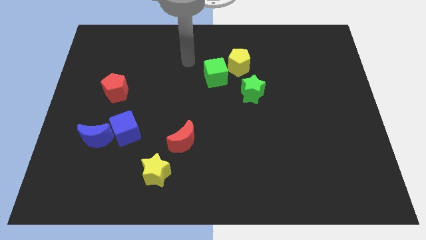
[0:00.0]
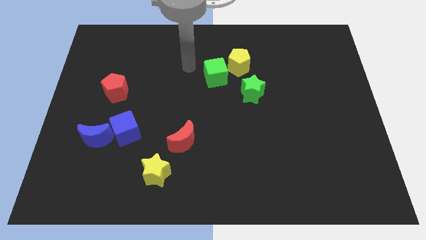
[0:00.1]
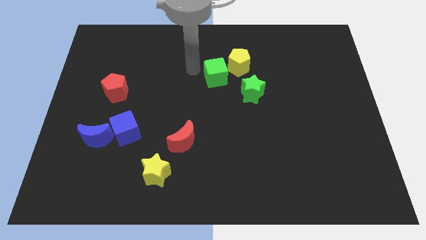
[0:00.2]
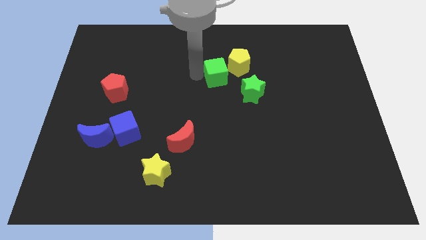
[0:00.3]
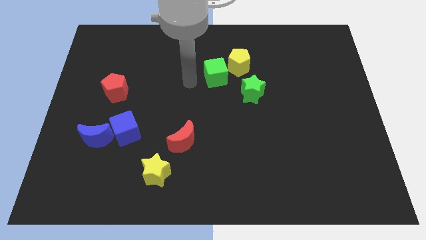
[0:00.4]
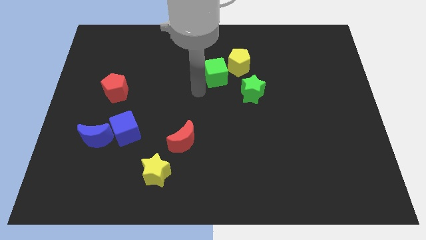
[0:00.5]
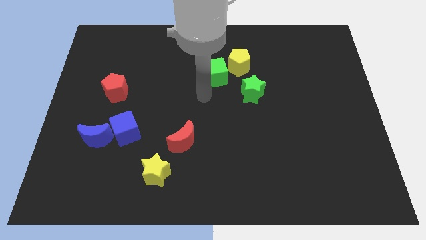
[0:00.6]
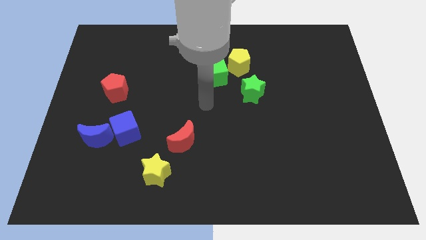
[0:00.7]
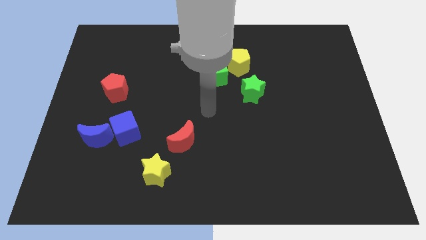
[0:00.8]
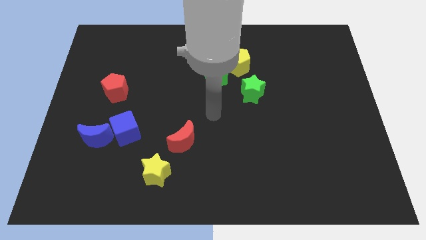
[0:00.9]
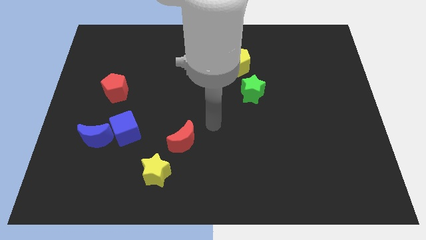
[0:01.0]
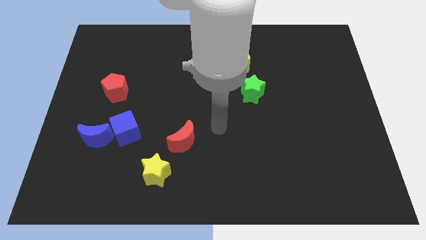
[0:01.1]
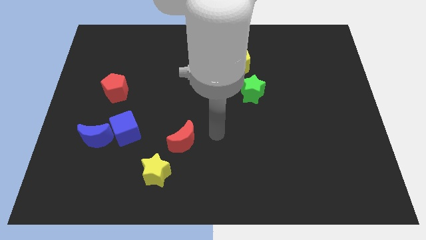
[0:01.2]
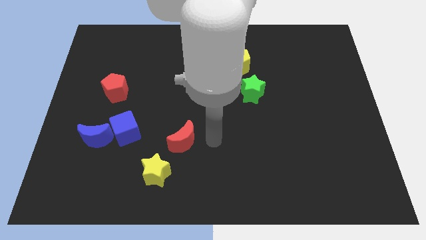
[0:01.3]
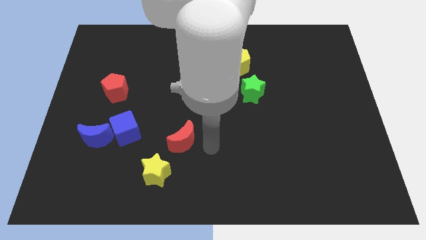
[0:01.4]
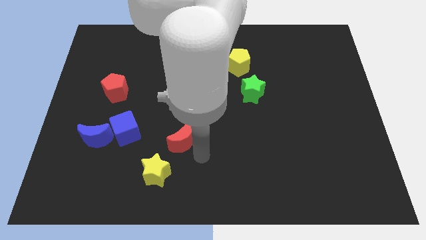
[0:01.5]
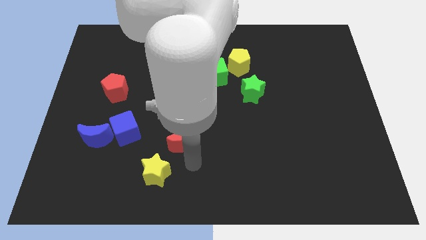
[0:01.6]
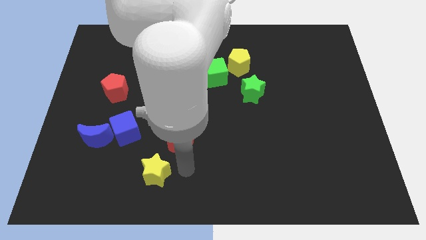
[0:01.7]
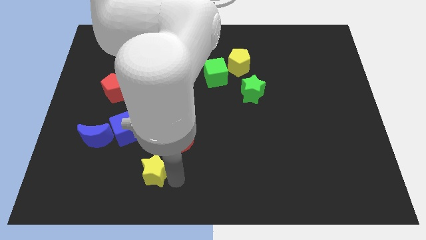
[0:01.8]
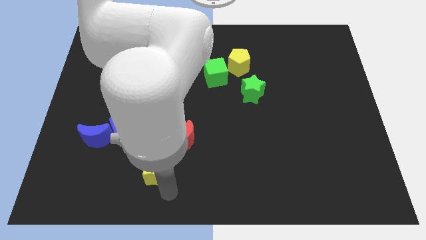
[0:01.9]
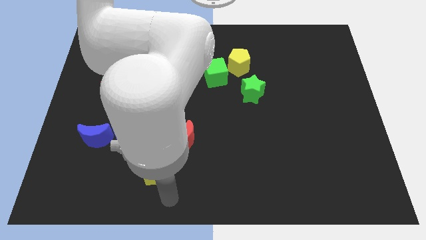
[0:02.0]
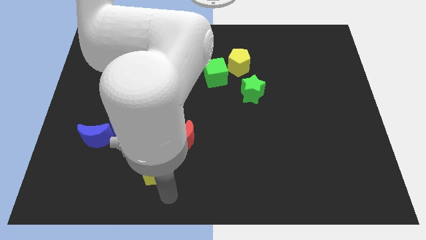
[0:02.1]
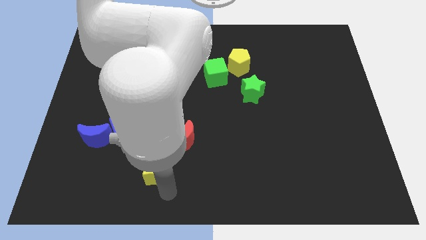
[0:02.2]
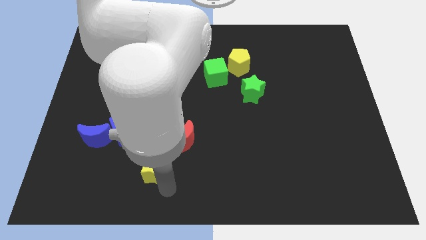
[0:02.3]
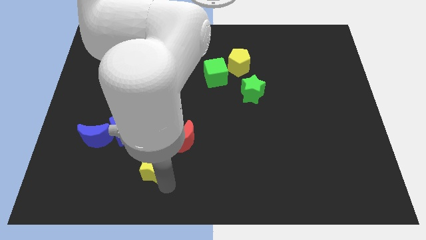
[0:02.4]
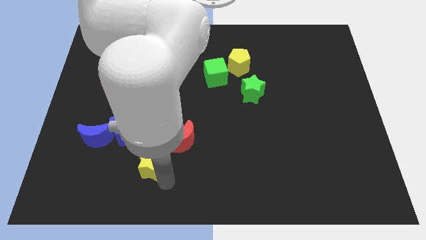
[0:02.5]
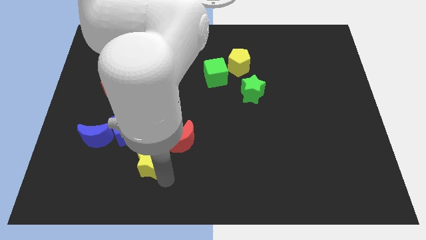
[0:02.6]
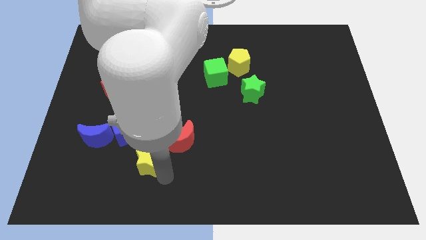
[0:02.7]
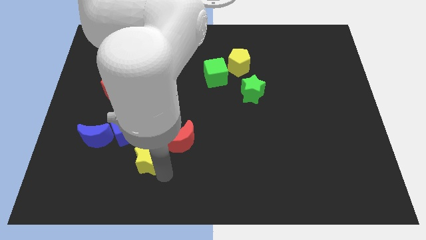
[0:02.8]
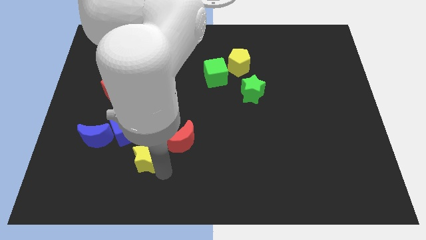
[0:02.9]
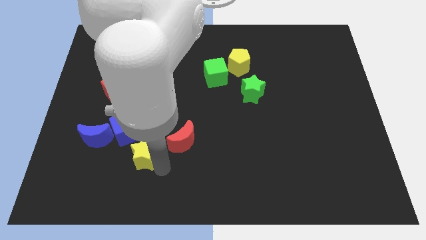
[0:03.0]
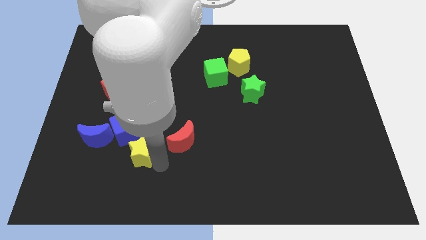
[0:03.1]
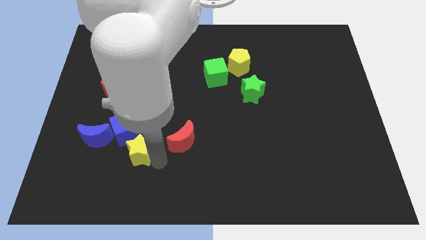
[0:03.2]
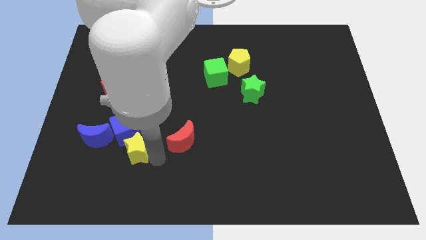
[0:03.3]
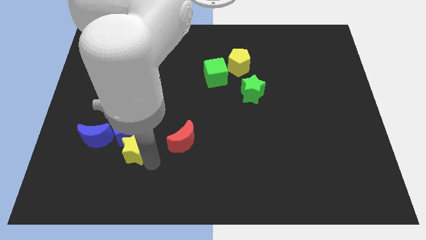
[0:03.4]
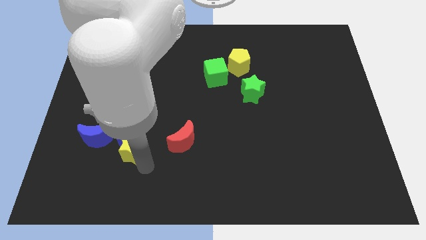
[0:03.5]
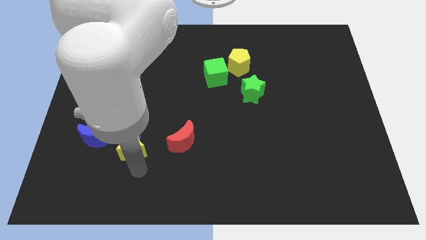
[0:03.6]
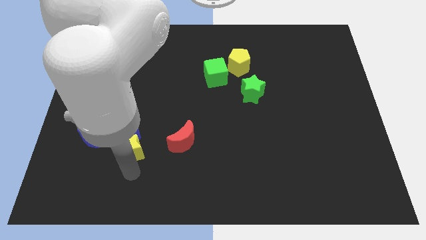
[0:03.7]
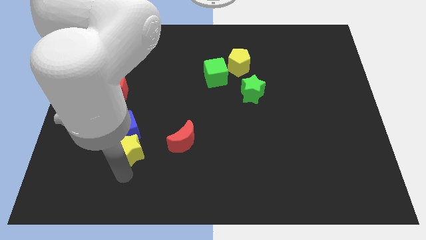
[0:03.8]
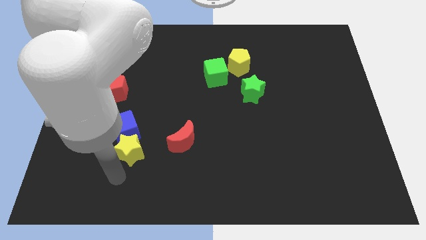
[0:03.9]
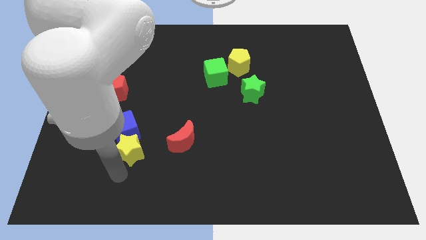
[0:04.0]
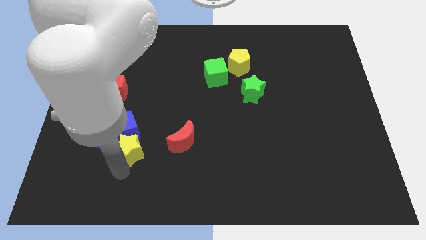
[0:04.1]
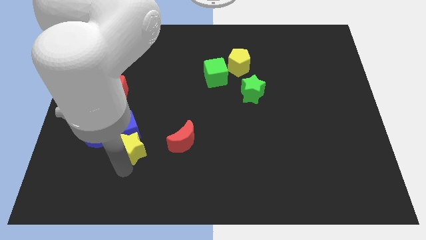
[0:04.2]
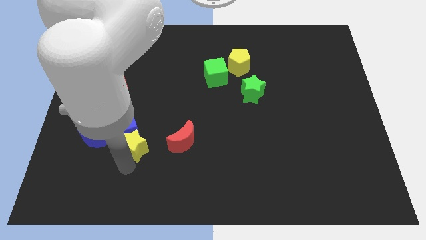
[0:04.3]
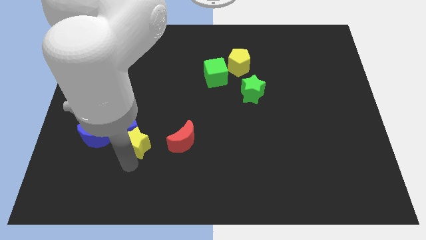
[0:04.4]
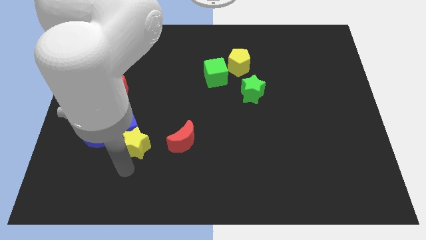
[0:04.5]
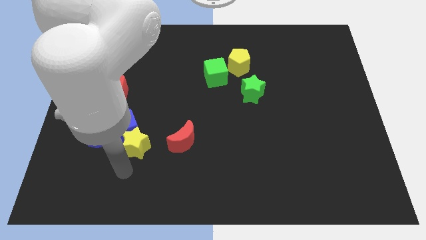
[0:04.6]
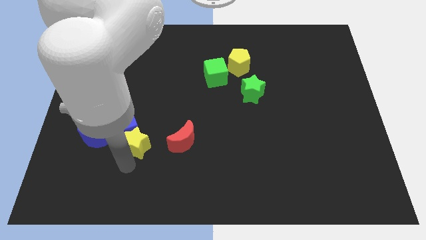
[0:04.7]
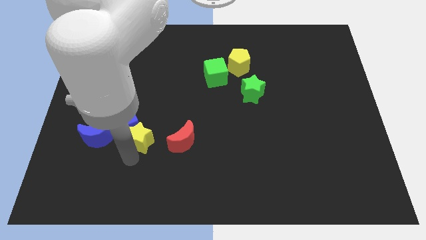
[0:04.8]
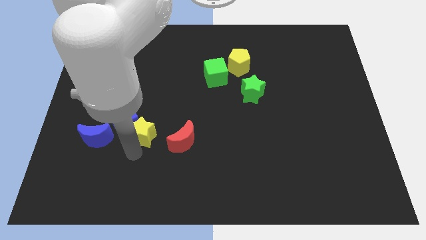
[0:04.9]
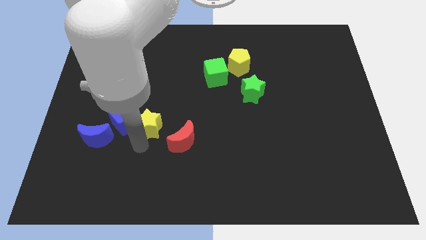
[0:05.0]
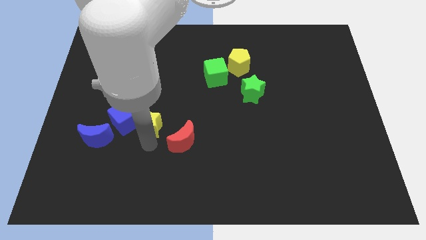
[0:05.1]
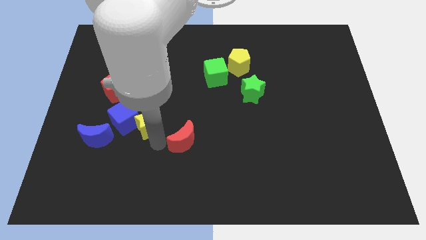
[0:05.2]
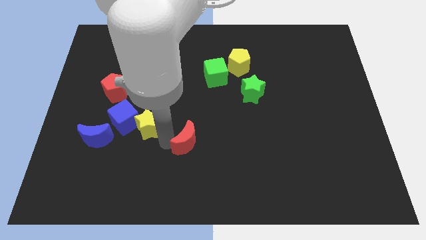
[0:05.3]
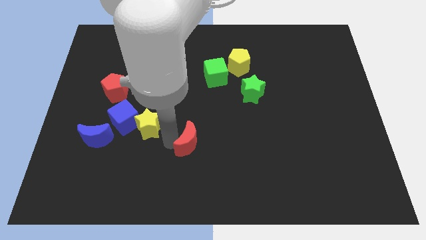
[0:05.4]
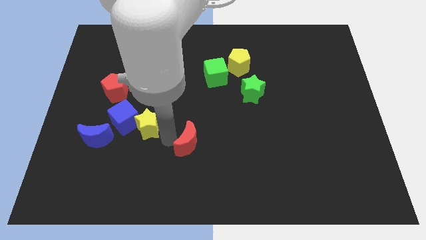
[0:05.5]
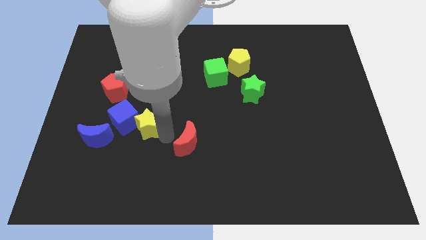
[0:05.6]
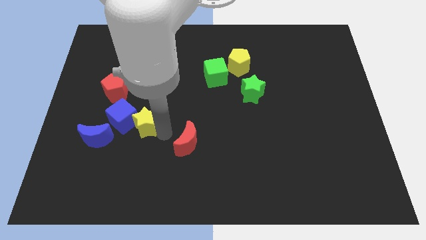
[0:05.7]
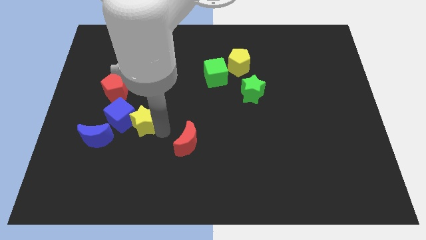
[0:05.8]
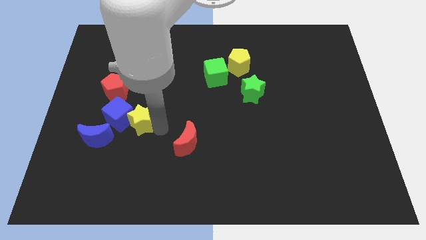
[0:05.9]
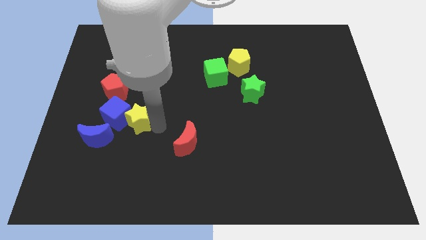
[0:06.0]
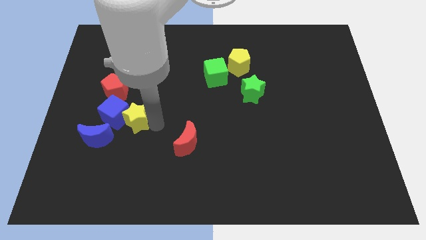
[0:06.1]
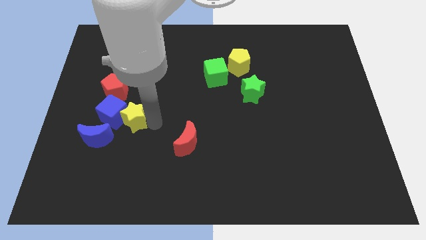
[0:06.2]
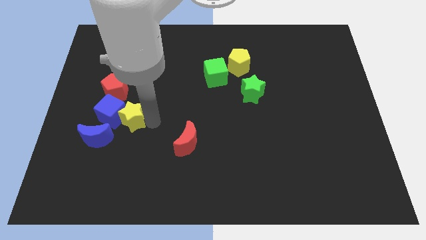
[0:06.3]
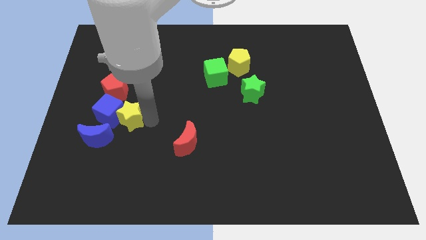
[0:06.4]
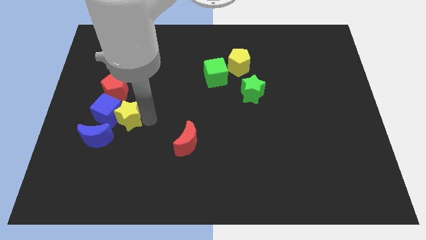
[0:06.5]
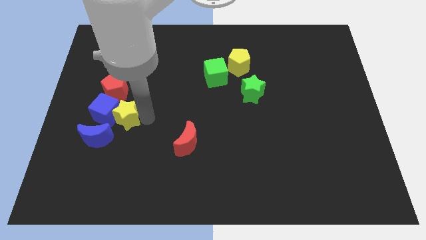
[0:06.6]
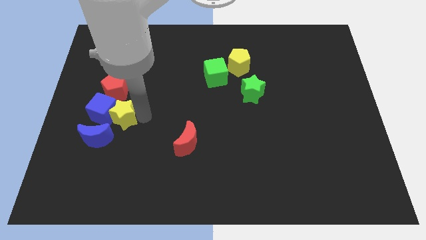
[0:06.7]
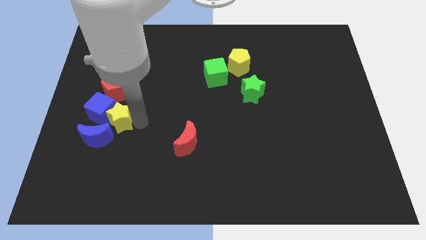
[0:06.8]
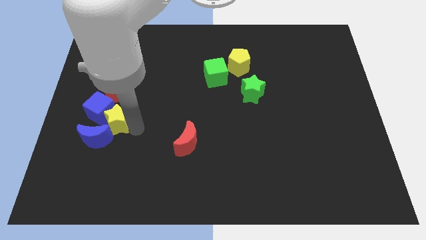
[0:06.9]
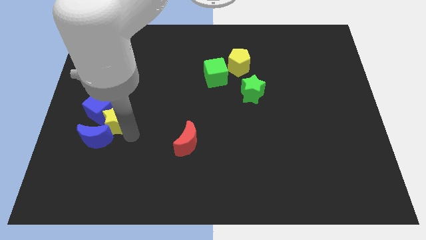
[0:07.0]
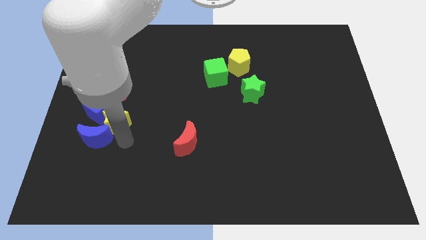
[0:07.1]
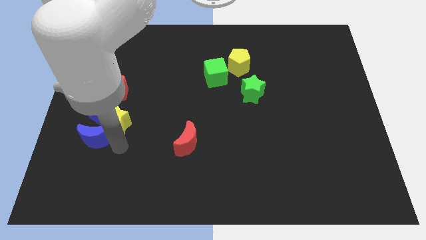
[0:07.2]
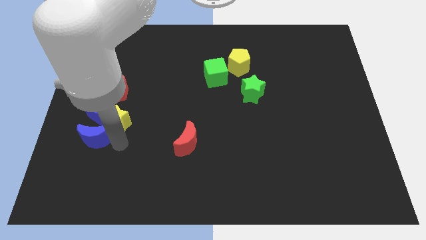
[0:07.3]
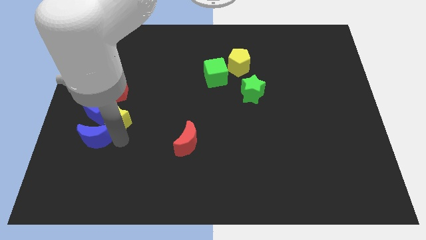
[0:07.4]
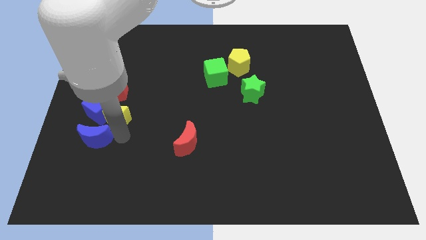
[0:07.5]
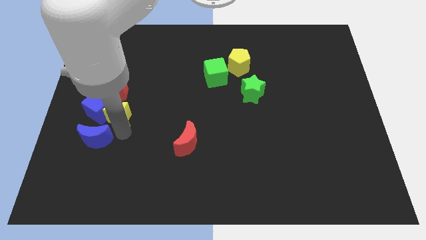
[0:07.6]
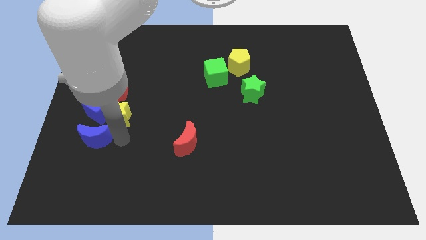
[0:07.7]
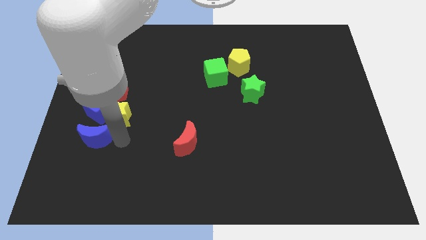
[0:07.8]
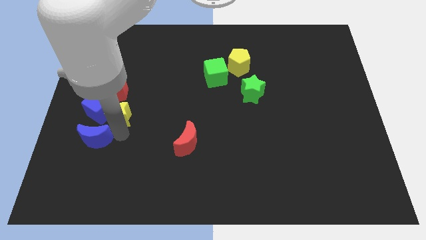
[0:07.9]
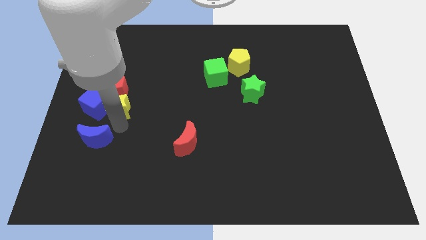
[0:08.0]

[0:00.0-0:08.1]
move the yellow star to the red pentagon
